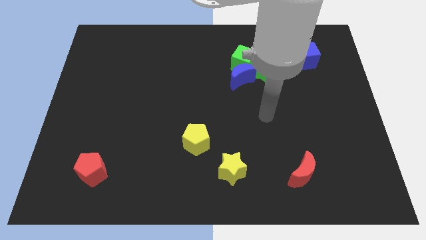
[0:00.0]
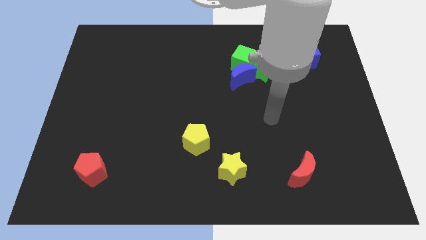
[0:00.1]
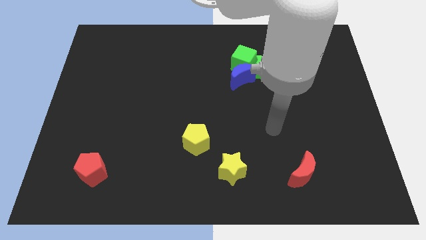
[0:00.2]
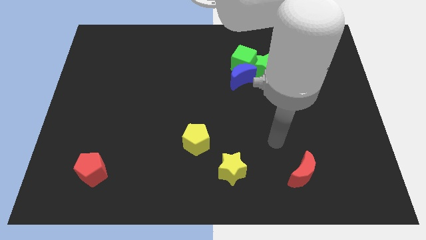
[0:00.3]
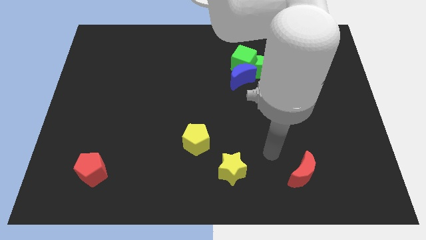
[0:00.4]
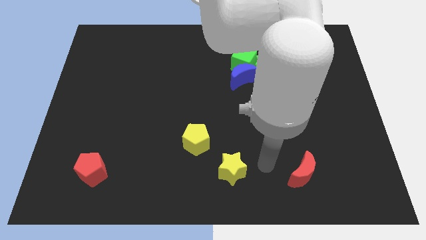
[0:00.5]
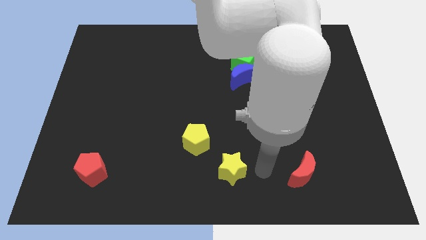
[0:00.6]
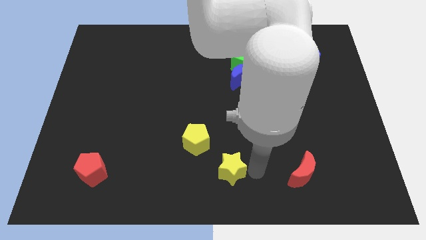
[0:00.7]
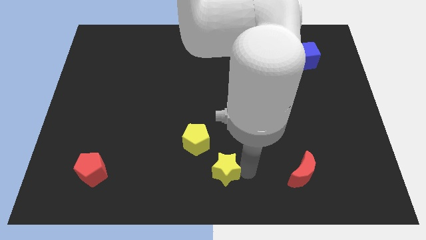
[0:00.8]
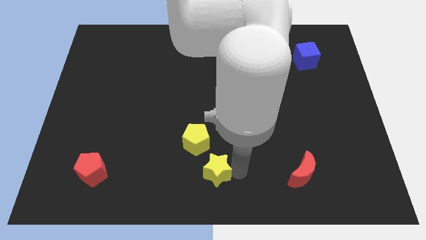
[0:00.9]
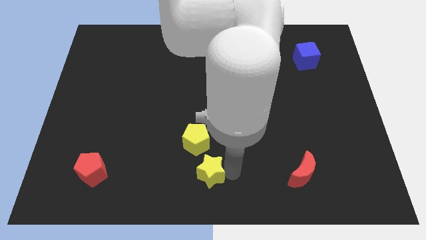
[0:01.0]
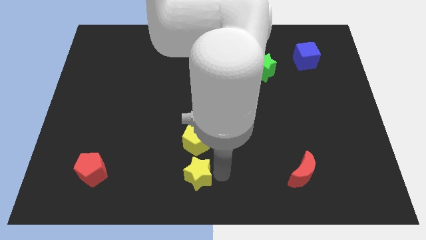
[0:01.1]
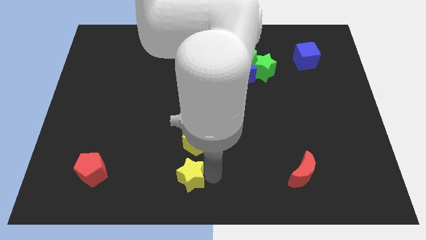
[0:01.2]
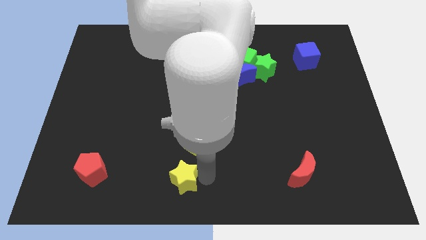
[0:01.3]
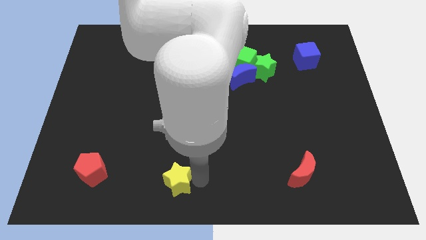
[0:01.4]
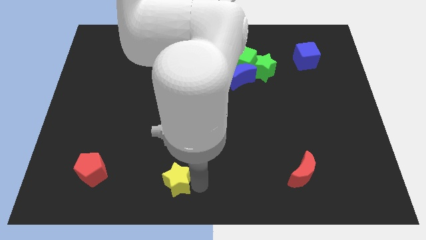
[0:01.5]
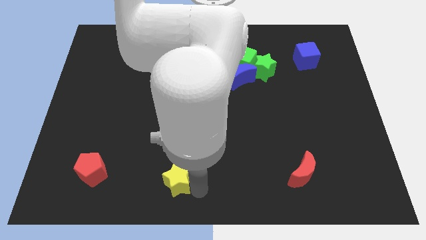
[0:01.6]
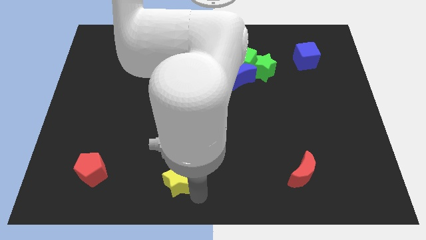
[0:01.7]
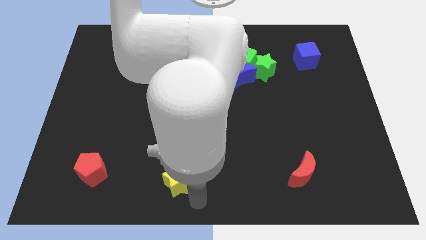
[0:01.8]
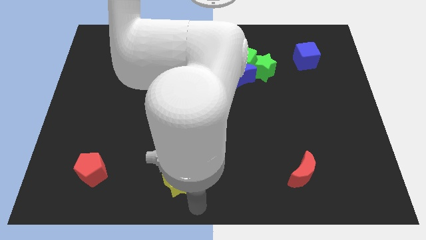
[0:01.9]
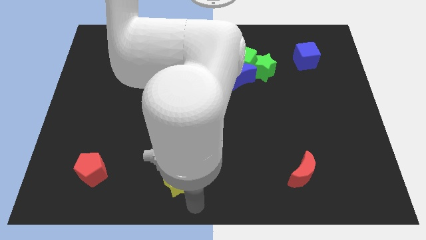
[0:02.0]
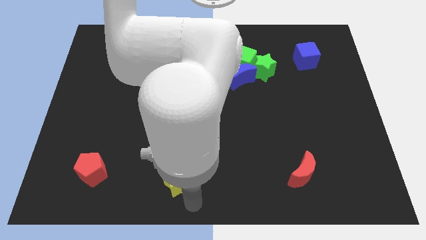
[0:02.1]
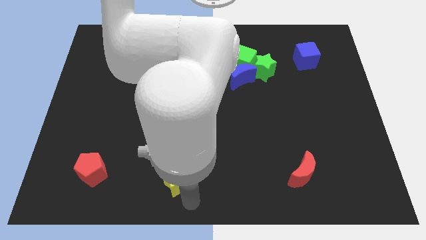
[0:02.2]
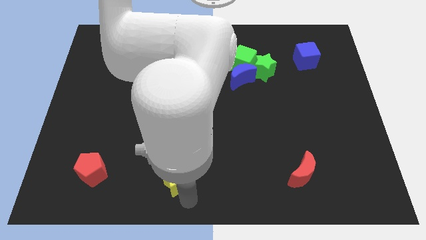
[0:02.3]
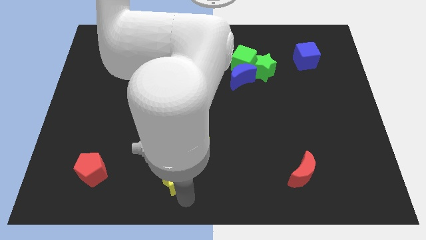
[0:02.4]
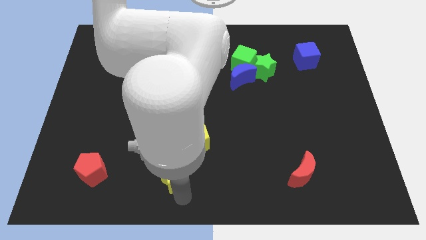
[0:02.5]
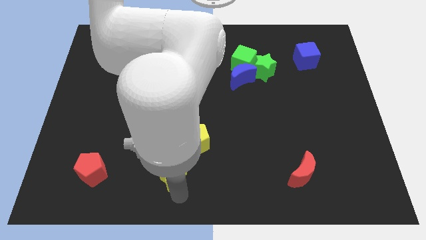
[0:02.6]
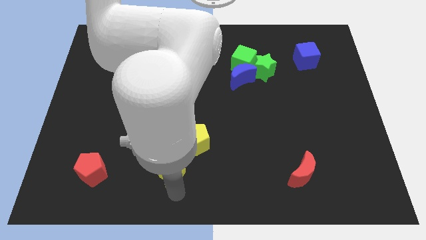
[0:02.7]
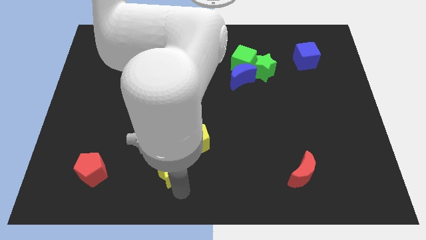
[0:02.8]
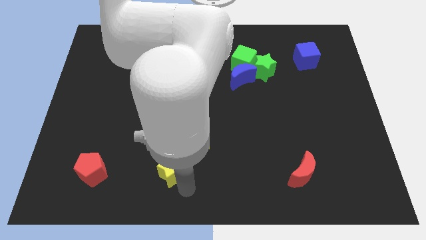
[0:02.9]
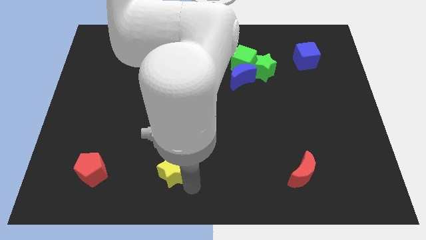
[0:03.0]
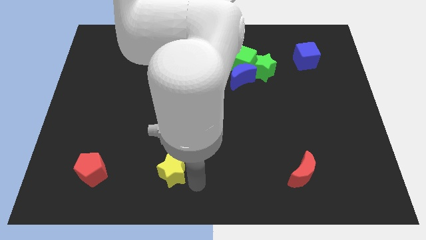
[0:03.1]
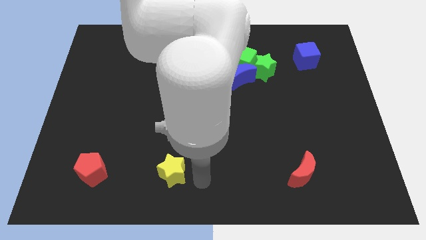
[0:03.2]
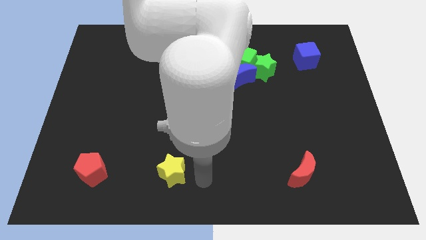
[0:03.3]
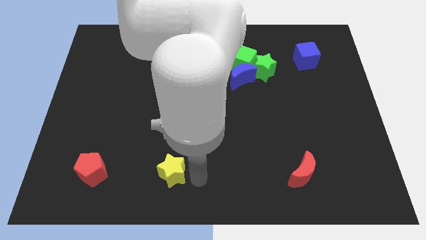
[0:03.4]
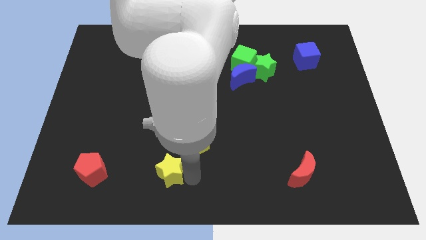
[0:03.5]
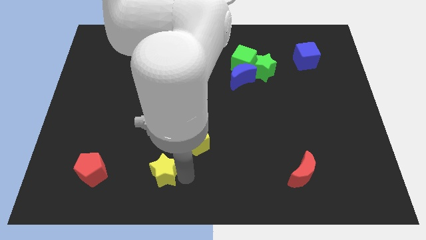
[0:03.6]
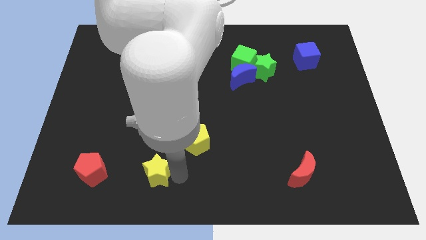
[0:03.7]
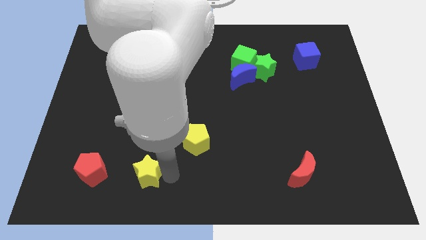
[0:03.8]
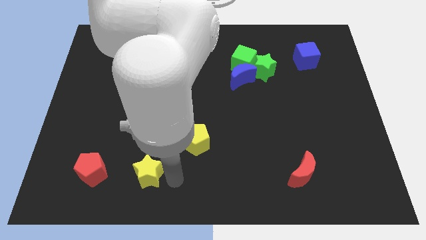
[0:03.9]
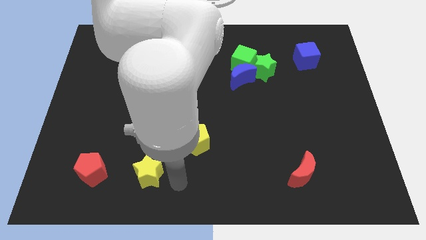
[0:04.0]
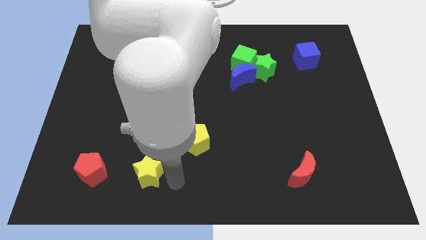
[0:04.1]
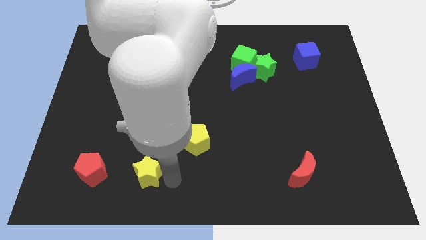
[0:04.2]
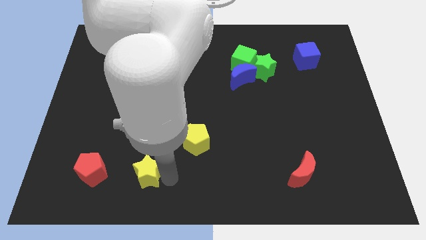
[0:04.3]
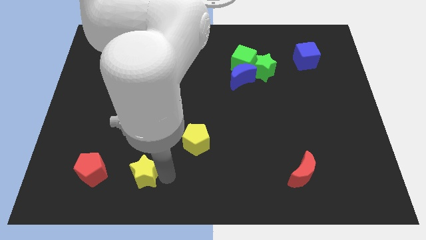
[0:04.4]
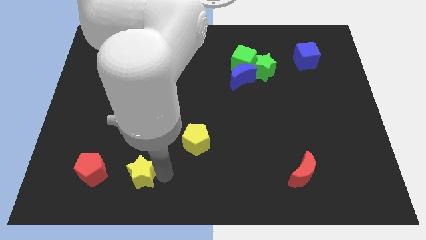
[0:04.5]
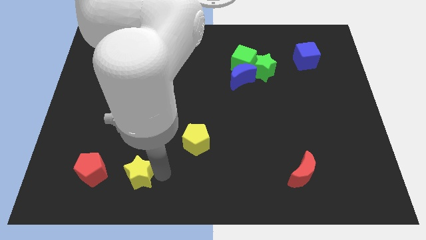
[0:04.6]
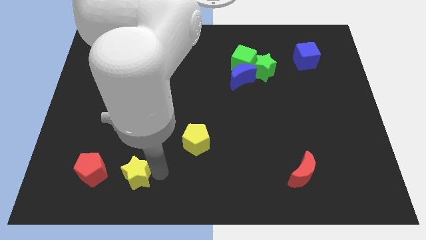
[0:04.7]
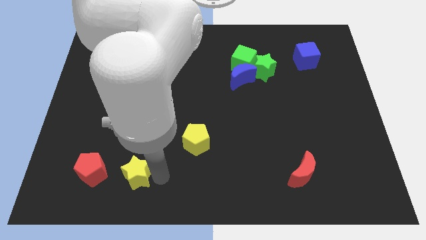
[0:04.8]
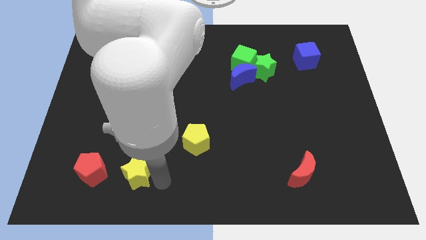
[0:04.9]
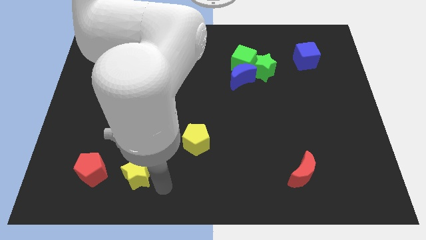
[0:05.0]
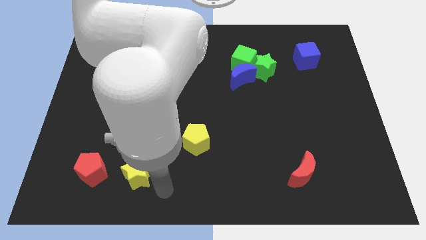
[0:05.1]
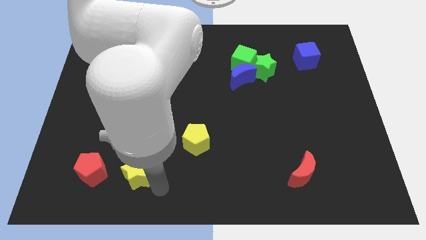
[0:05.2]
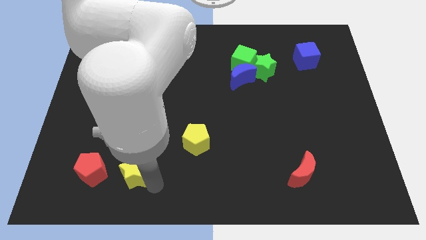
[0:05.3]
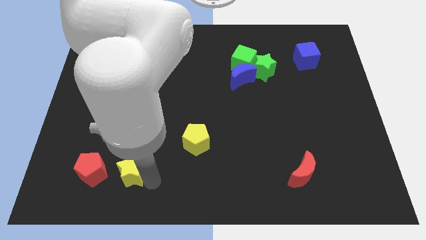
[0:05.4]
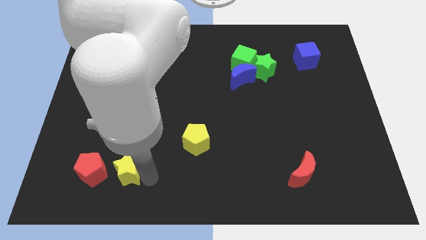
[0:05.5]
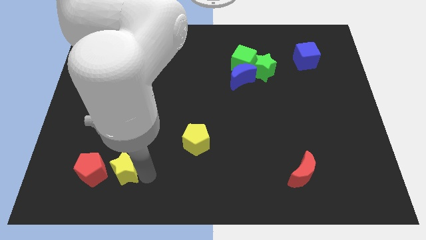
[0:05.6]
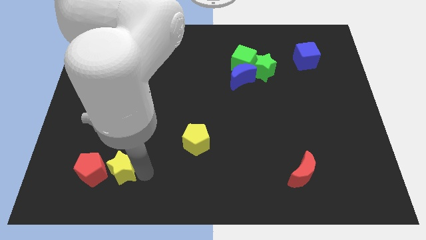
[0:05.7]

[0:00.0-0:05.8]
slide the yellow star close to the red pentagon

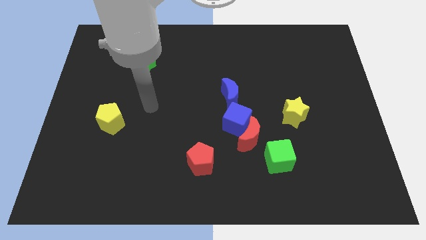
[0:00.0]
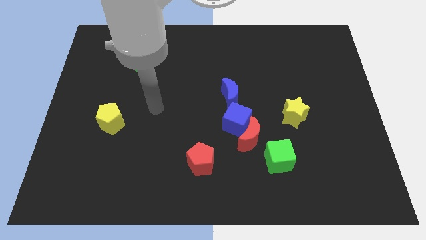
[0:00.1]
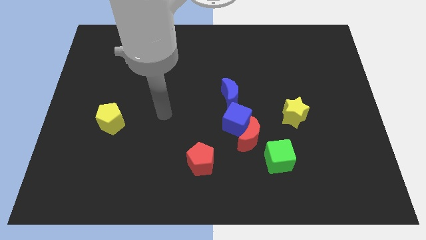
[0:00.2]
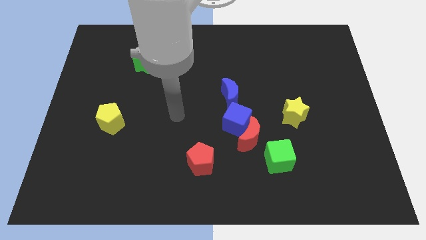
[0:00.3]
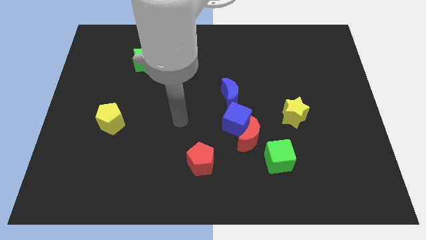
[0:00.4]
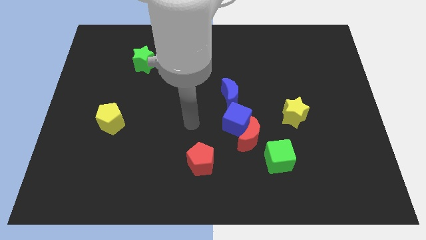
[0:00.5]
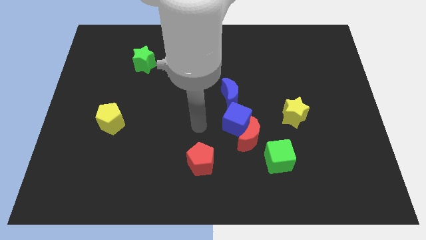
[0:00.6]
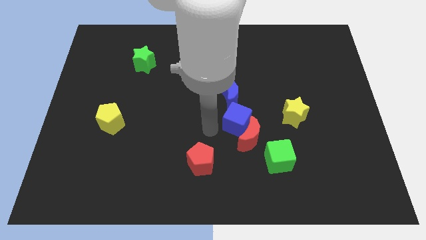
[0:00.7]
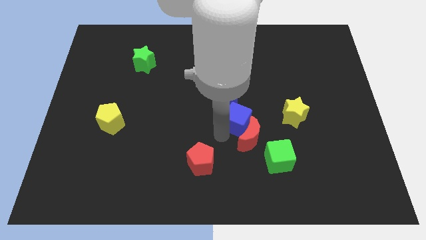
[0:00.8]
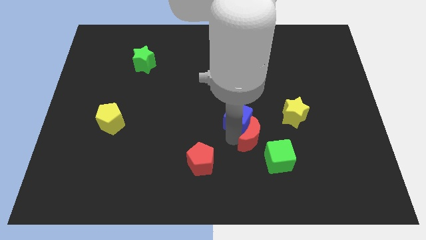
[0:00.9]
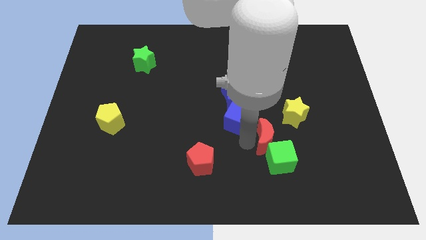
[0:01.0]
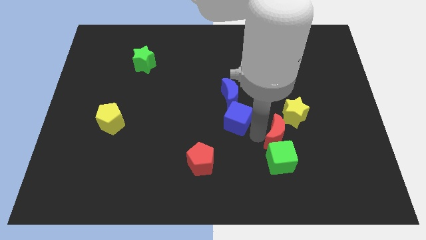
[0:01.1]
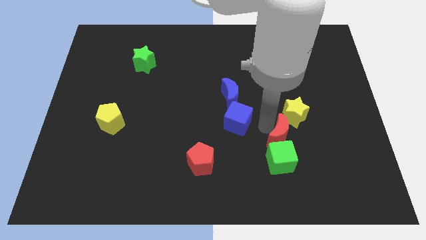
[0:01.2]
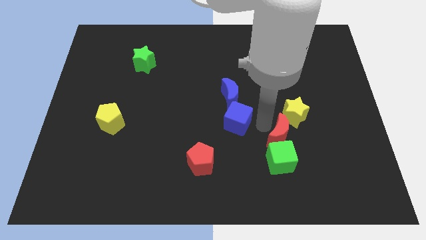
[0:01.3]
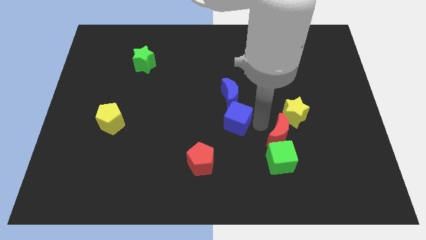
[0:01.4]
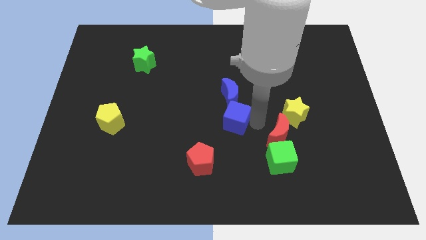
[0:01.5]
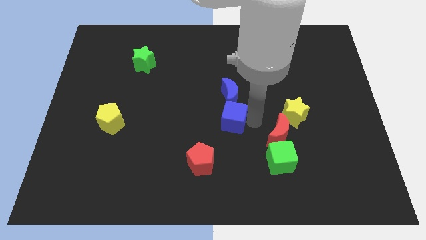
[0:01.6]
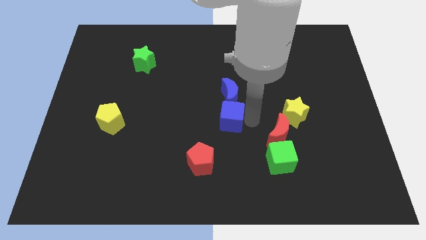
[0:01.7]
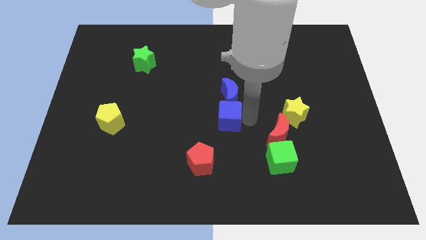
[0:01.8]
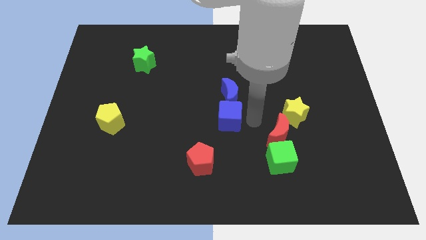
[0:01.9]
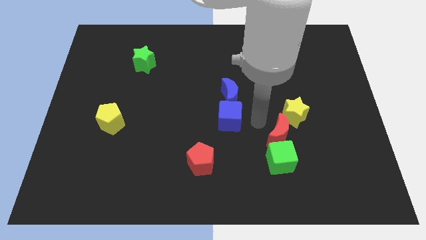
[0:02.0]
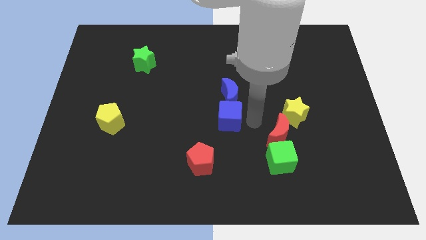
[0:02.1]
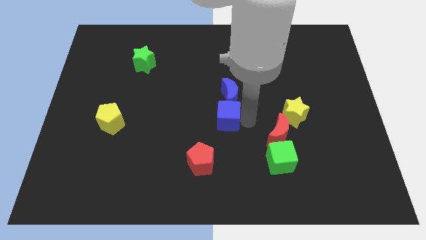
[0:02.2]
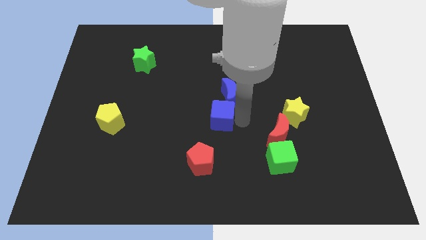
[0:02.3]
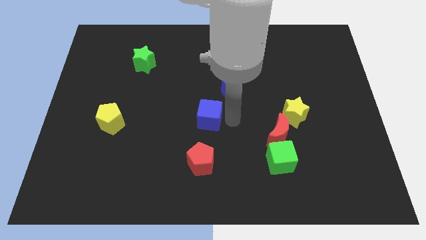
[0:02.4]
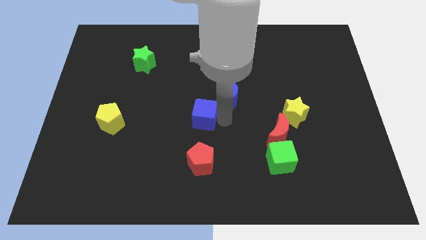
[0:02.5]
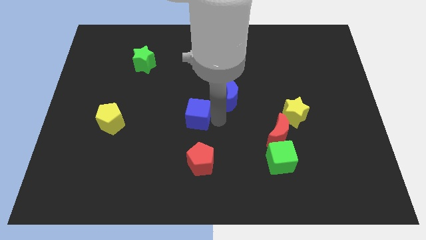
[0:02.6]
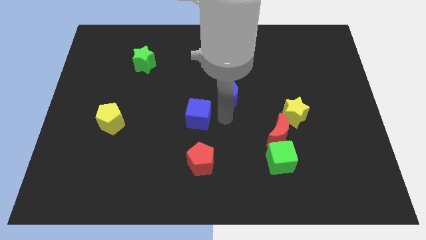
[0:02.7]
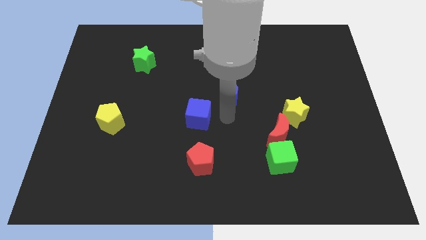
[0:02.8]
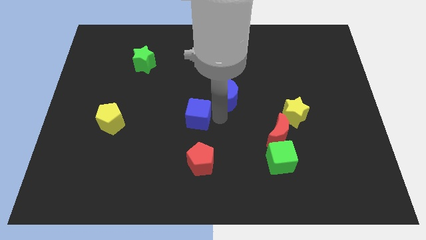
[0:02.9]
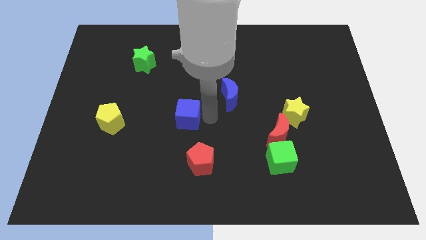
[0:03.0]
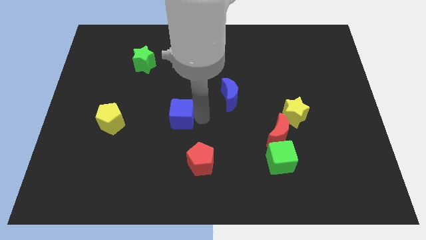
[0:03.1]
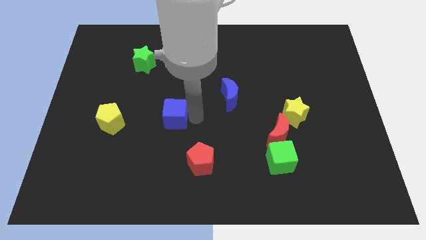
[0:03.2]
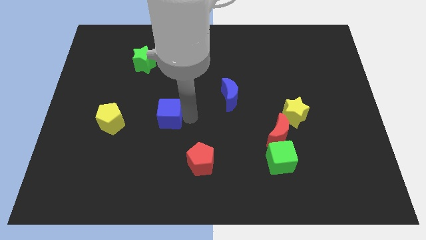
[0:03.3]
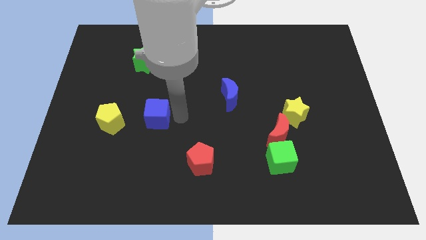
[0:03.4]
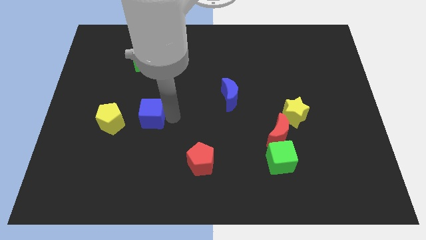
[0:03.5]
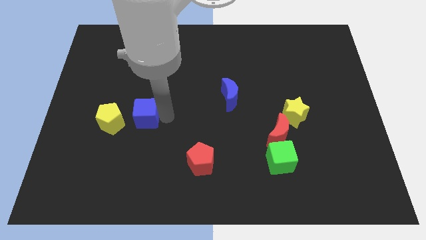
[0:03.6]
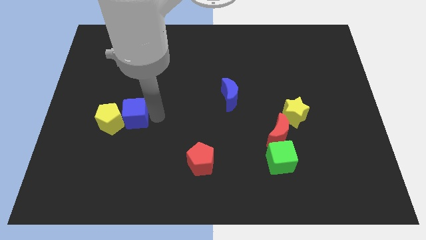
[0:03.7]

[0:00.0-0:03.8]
slide the blue cube close to the yellow pentagon
